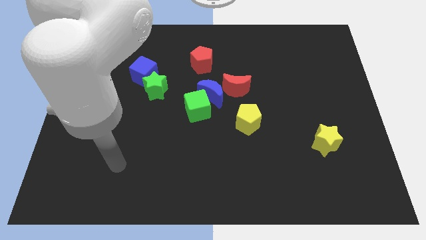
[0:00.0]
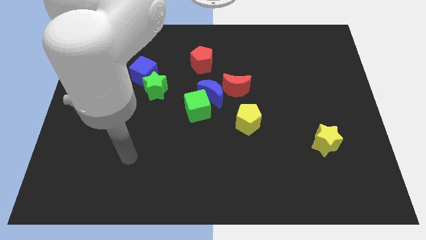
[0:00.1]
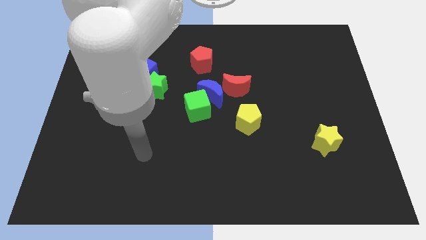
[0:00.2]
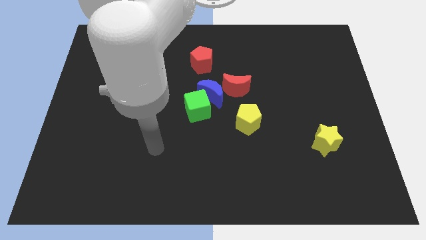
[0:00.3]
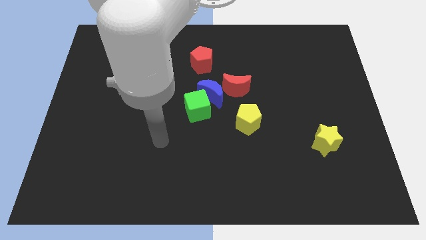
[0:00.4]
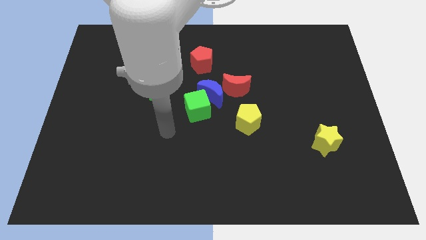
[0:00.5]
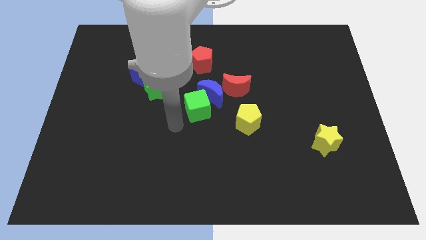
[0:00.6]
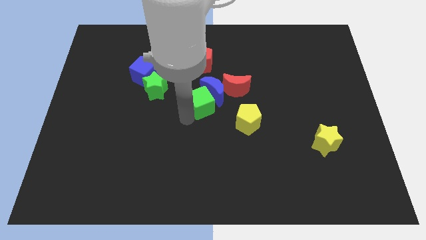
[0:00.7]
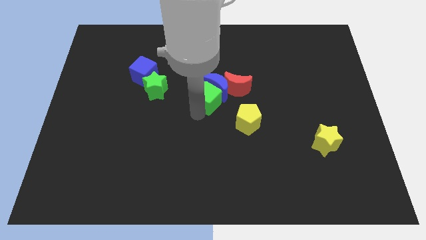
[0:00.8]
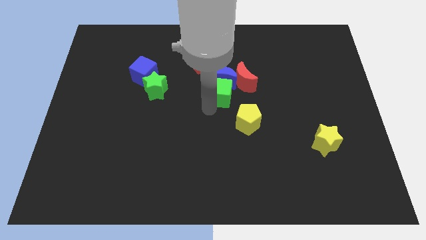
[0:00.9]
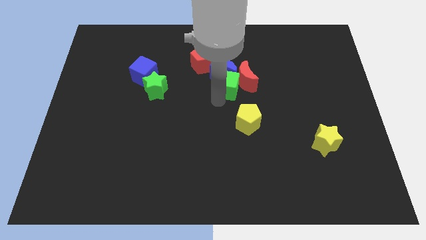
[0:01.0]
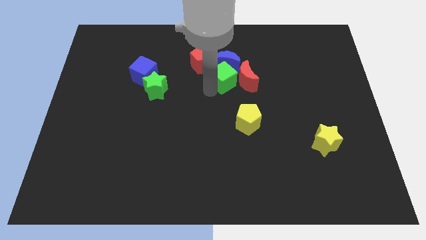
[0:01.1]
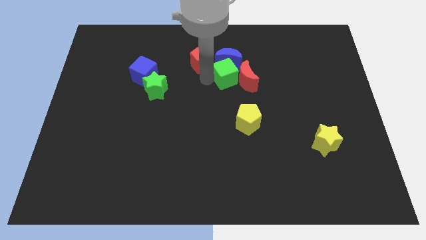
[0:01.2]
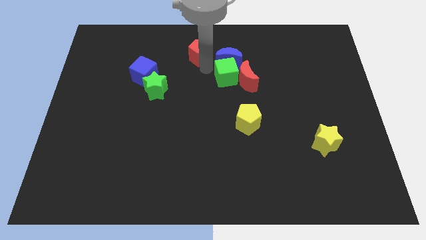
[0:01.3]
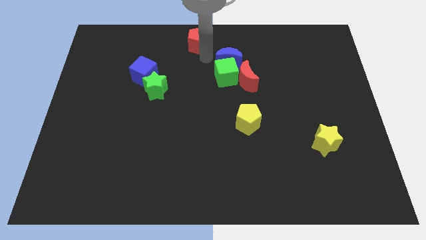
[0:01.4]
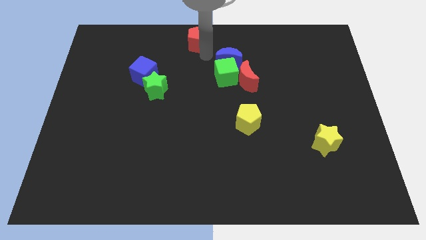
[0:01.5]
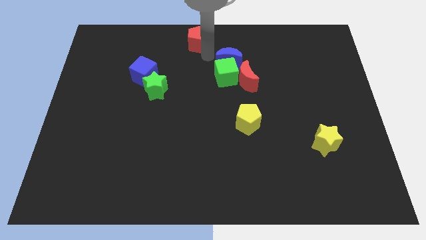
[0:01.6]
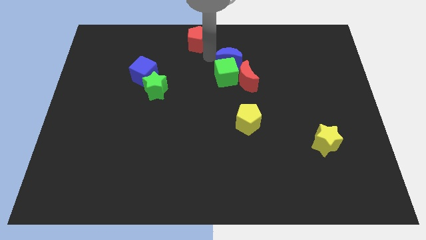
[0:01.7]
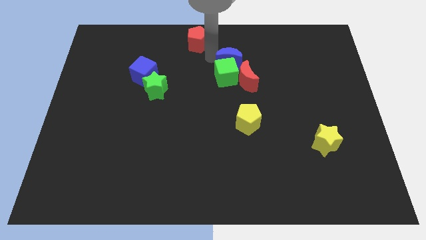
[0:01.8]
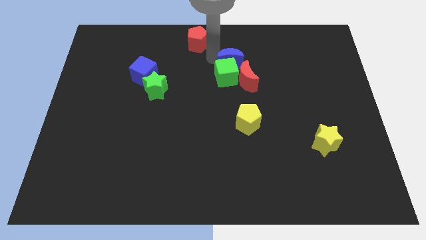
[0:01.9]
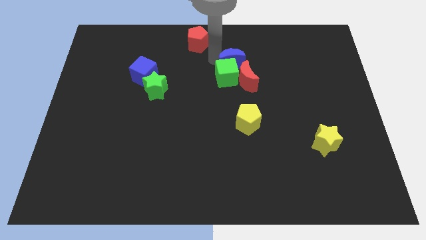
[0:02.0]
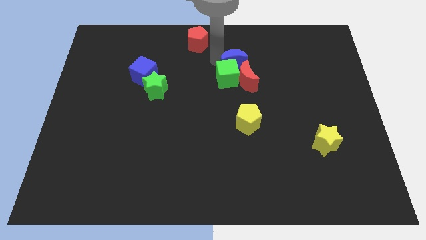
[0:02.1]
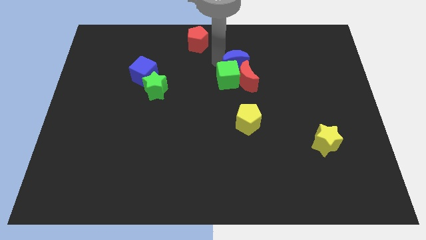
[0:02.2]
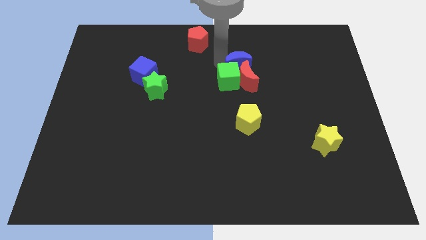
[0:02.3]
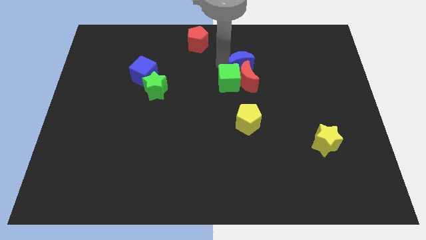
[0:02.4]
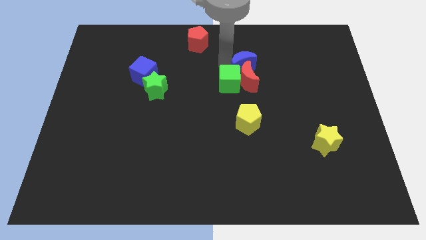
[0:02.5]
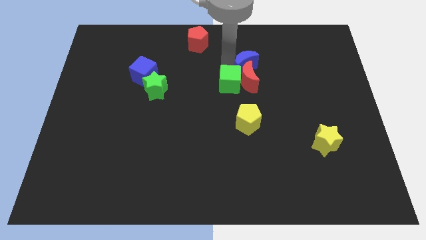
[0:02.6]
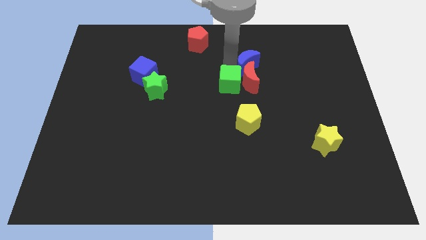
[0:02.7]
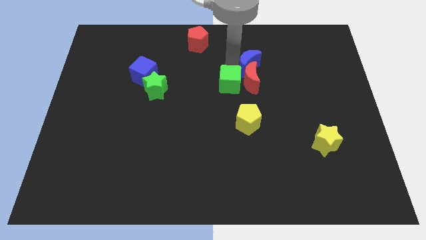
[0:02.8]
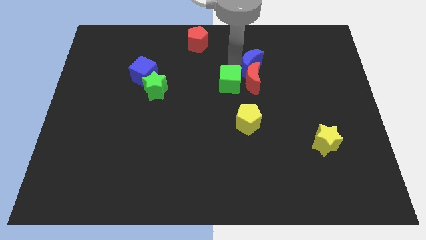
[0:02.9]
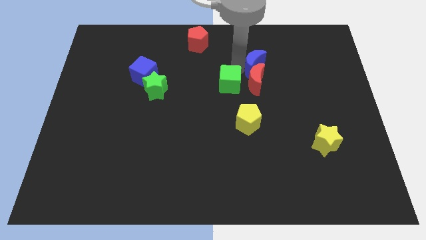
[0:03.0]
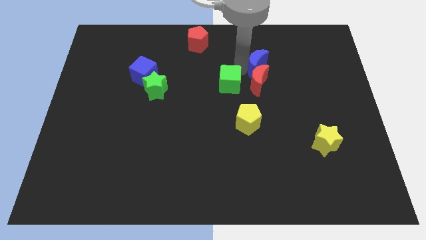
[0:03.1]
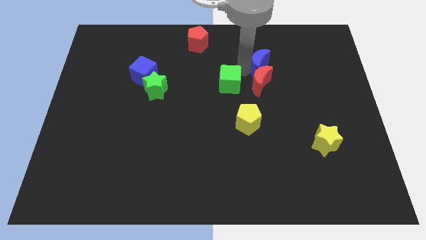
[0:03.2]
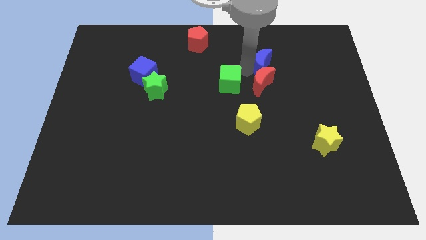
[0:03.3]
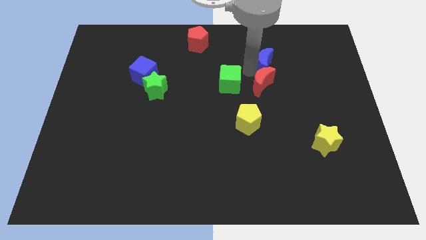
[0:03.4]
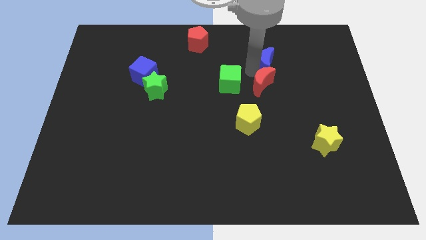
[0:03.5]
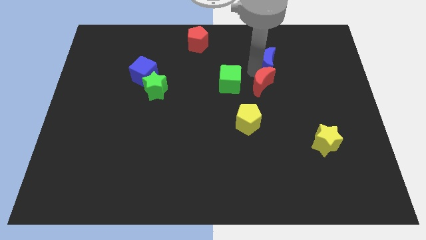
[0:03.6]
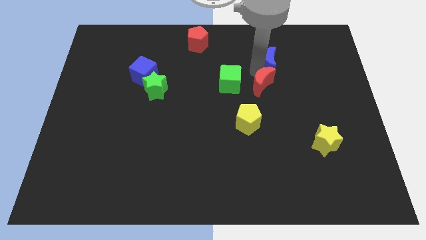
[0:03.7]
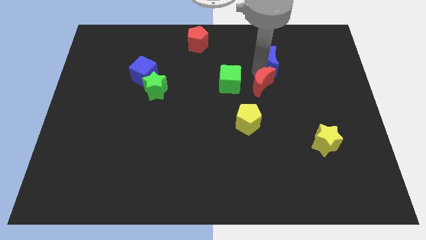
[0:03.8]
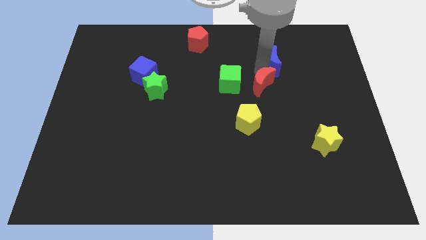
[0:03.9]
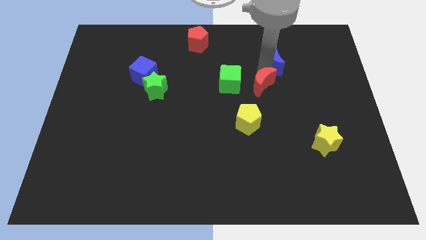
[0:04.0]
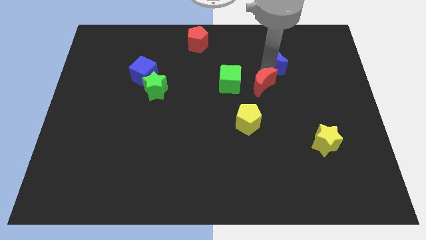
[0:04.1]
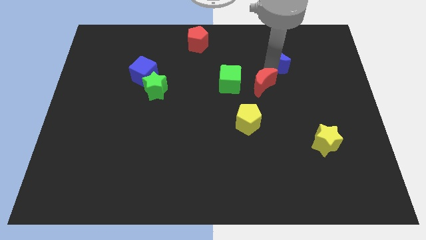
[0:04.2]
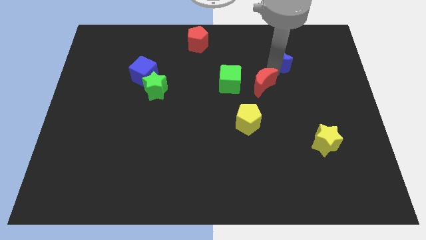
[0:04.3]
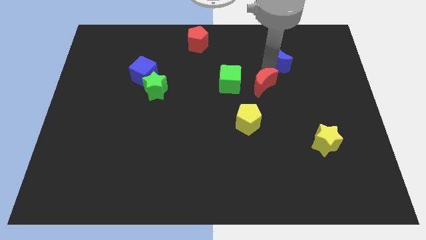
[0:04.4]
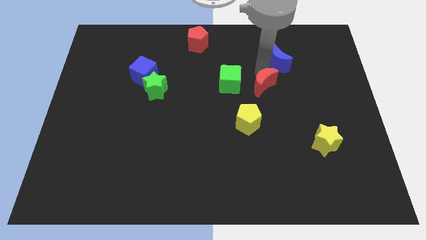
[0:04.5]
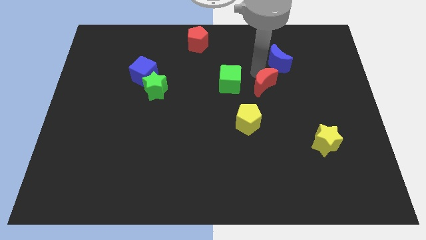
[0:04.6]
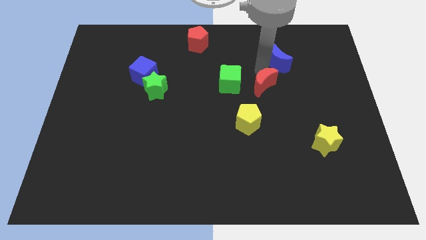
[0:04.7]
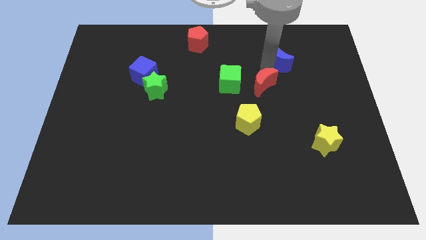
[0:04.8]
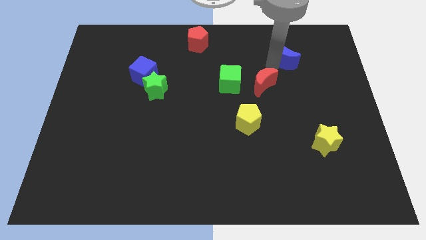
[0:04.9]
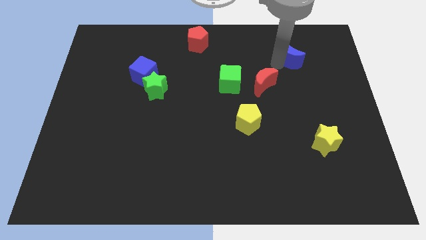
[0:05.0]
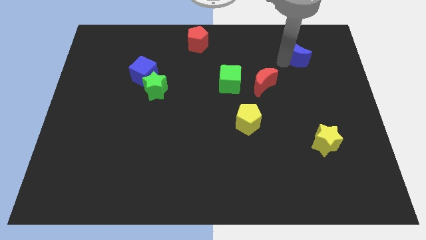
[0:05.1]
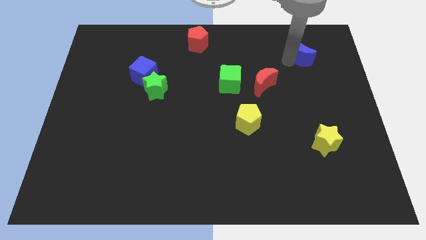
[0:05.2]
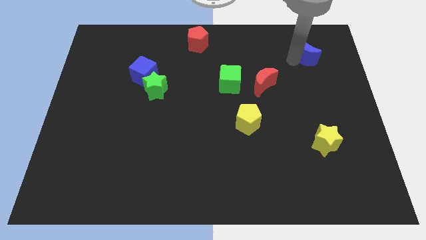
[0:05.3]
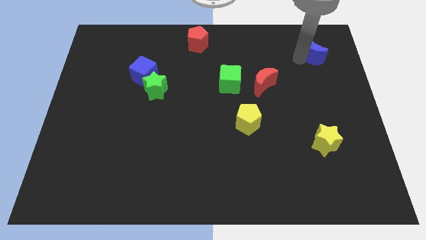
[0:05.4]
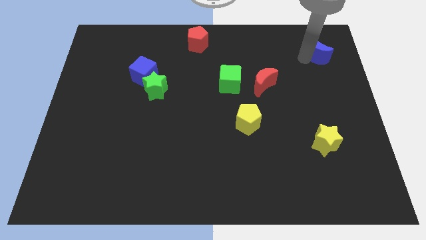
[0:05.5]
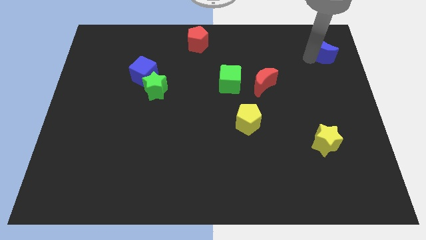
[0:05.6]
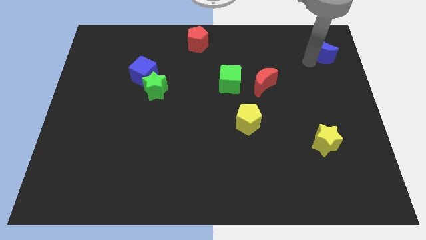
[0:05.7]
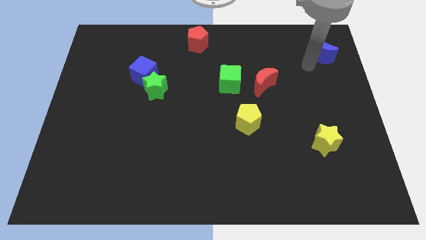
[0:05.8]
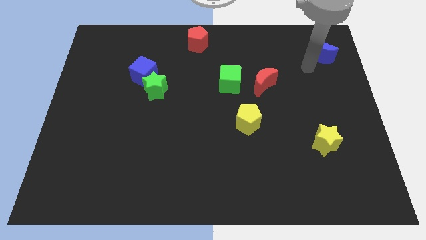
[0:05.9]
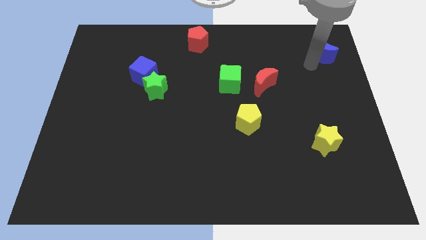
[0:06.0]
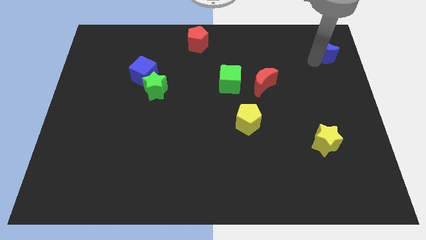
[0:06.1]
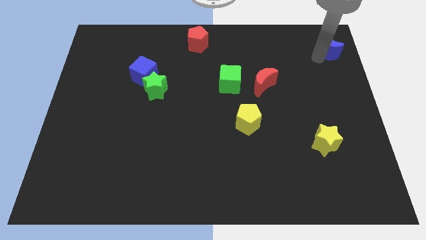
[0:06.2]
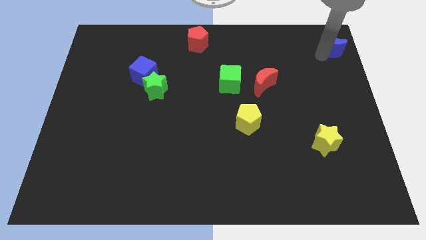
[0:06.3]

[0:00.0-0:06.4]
move the blue moon to the top right of the board

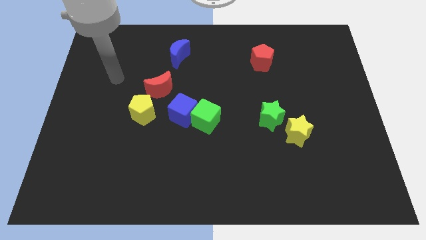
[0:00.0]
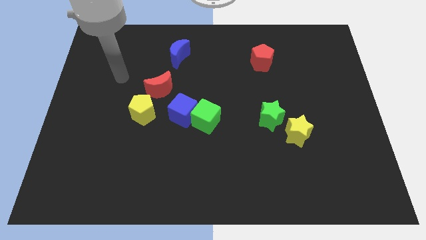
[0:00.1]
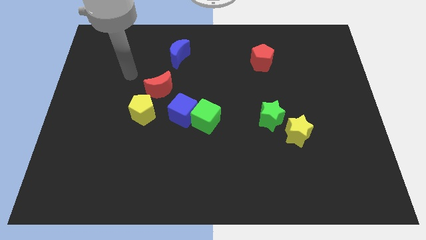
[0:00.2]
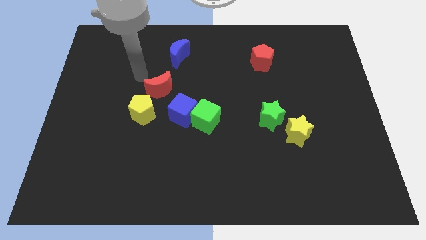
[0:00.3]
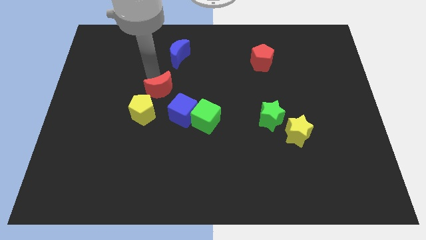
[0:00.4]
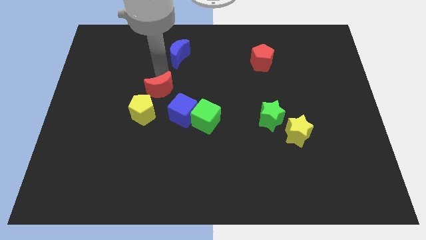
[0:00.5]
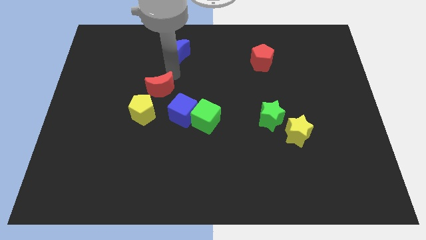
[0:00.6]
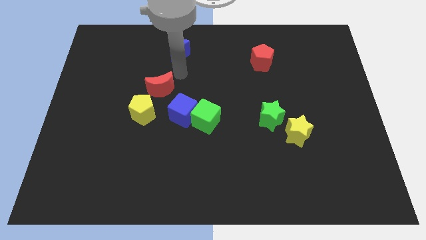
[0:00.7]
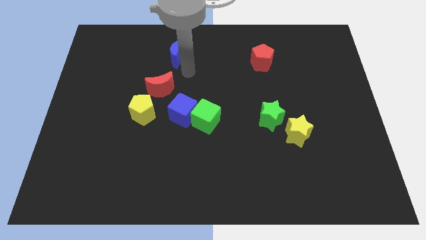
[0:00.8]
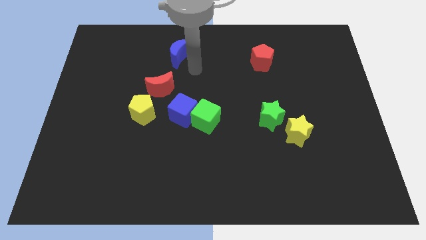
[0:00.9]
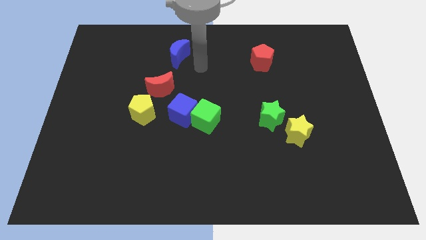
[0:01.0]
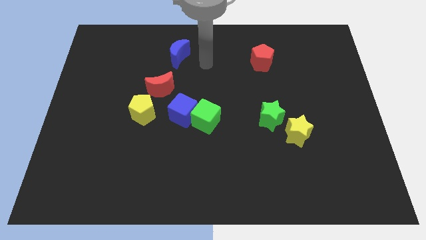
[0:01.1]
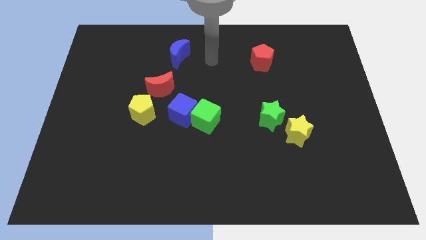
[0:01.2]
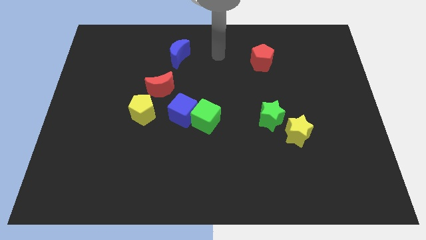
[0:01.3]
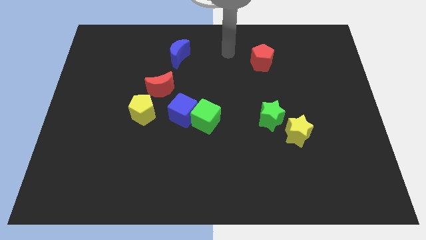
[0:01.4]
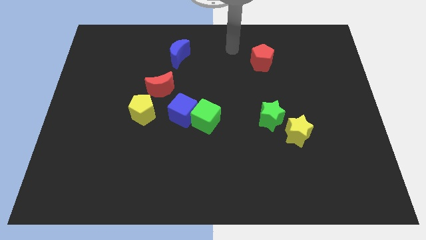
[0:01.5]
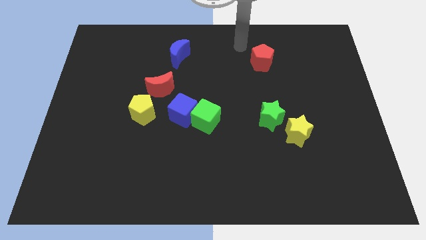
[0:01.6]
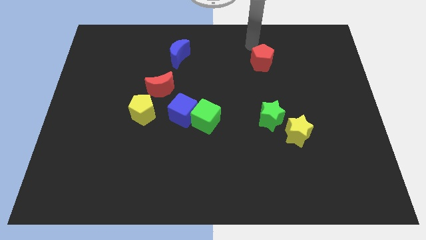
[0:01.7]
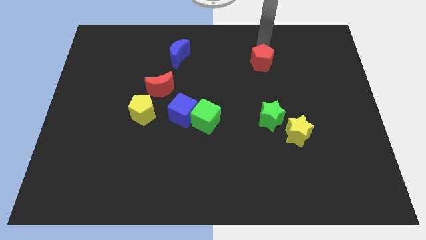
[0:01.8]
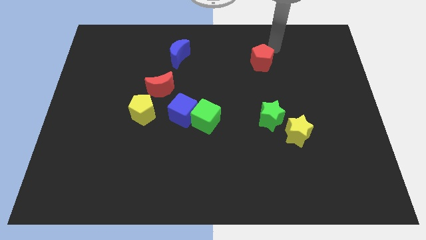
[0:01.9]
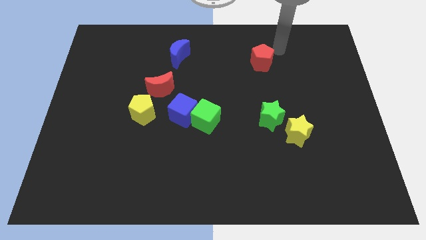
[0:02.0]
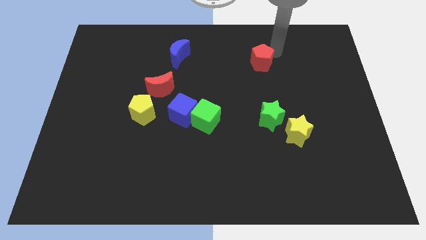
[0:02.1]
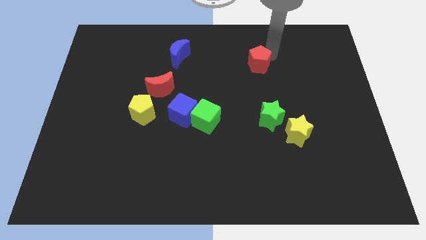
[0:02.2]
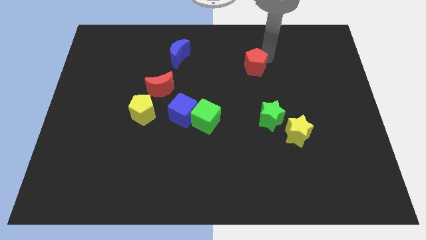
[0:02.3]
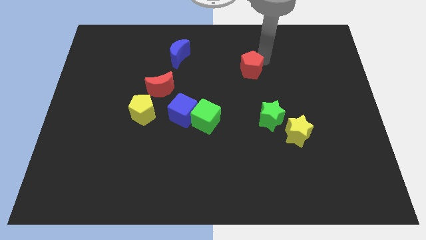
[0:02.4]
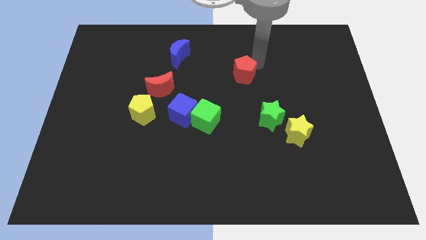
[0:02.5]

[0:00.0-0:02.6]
put the red pentagon to the middle
